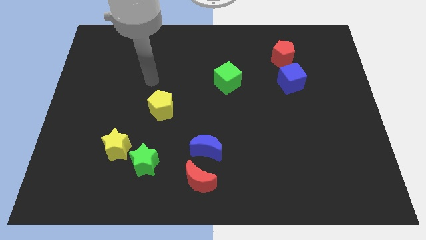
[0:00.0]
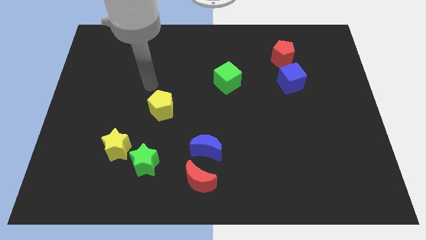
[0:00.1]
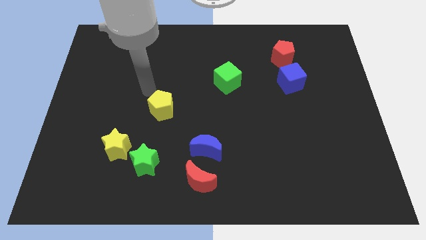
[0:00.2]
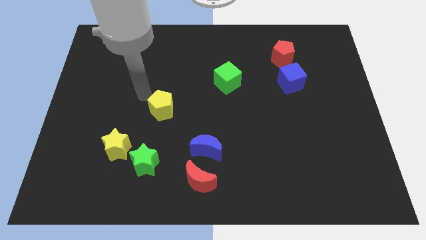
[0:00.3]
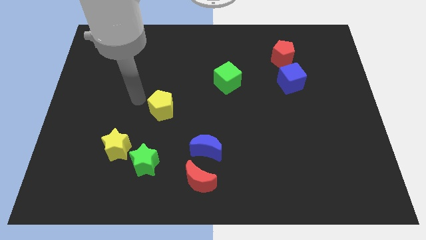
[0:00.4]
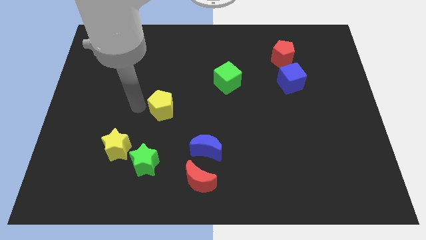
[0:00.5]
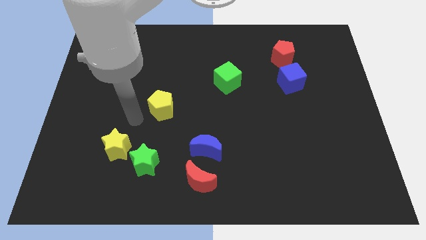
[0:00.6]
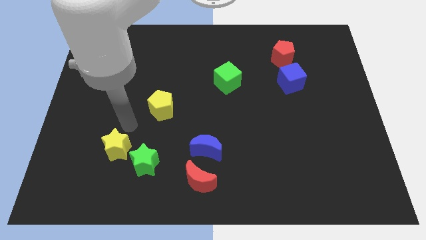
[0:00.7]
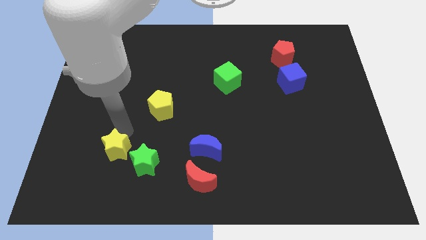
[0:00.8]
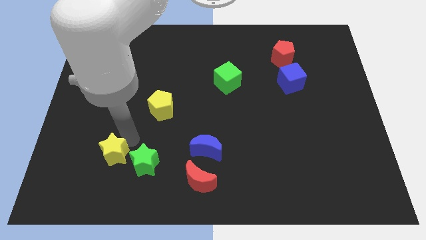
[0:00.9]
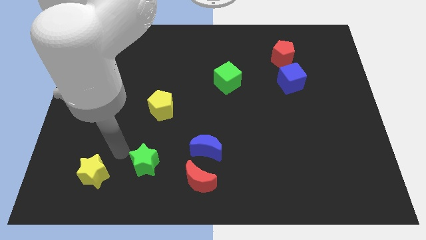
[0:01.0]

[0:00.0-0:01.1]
move the green star away from the yellow star

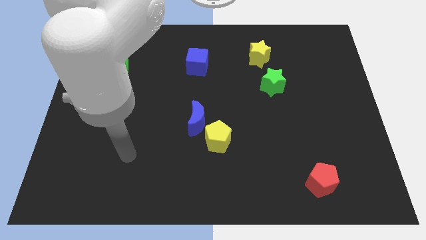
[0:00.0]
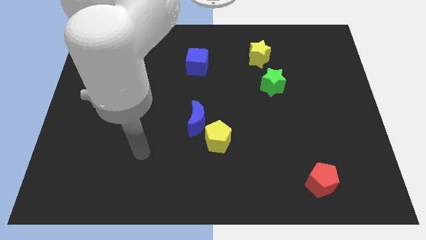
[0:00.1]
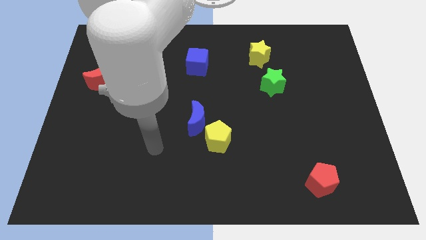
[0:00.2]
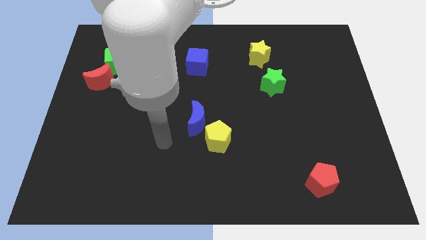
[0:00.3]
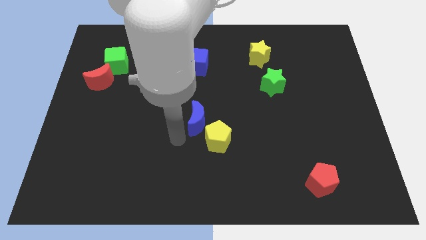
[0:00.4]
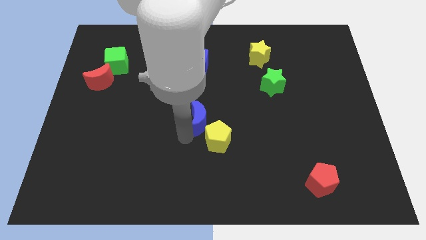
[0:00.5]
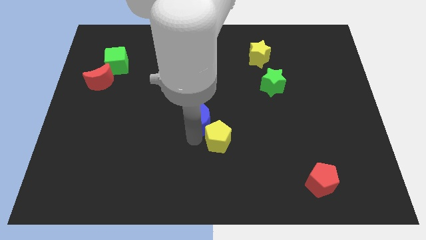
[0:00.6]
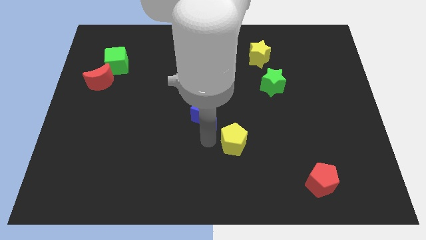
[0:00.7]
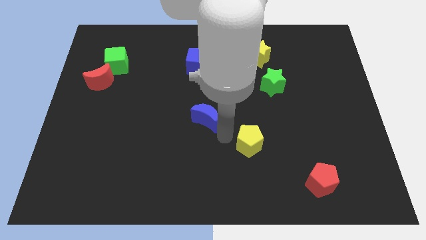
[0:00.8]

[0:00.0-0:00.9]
move the blue moon away from the yellow pentagon

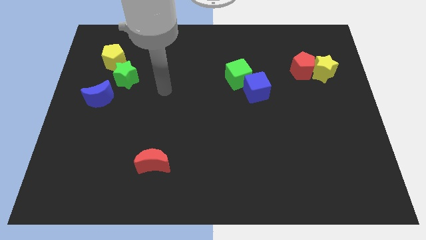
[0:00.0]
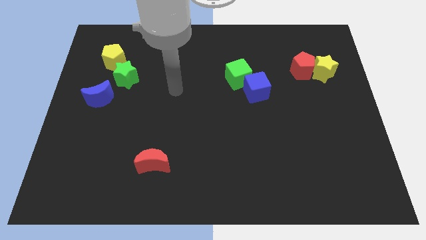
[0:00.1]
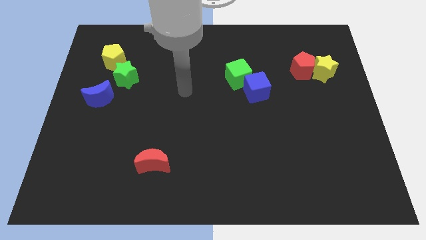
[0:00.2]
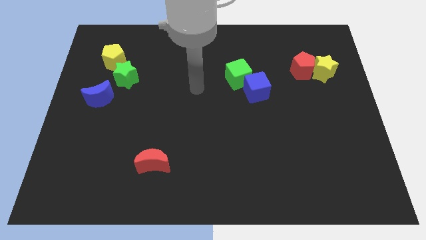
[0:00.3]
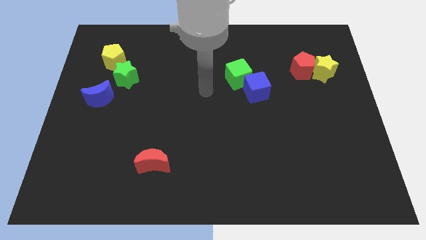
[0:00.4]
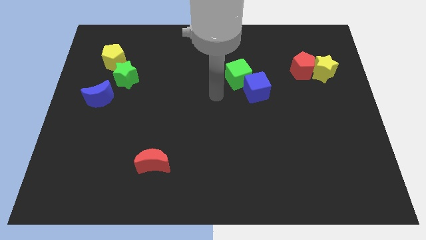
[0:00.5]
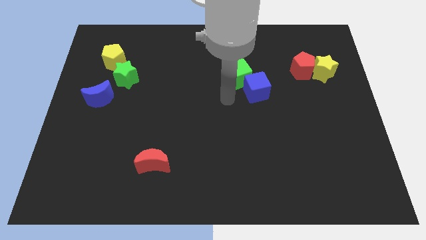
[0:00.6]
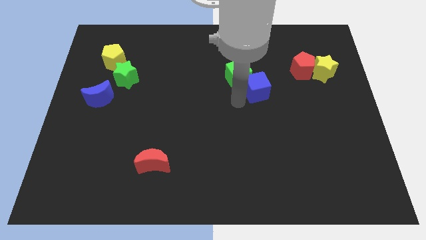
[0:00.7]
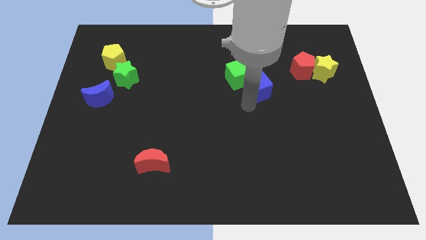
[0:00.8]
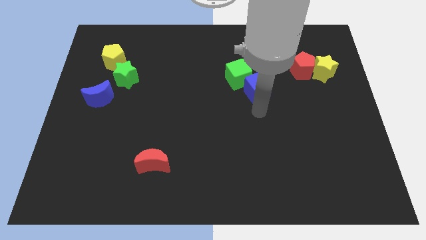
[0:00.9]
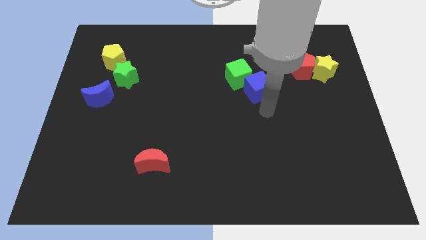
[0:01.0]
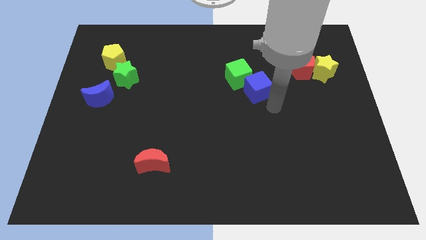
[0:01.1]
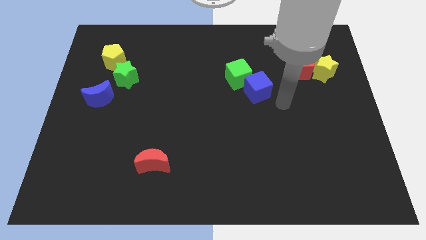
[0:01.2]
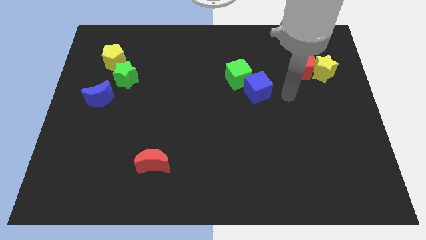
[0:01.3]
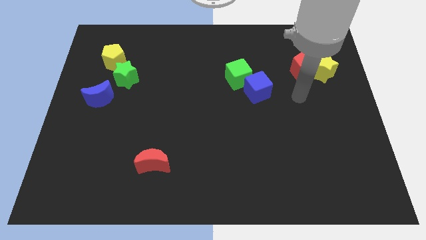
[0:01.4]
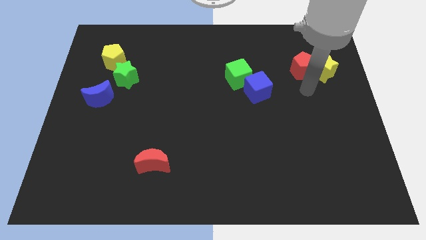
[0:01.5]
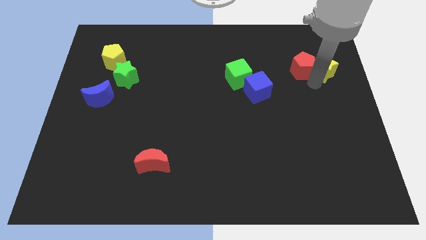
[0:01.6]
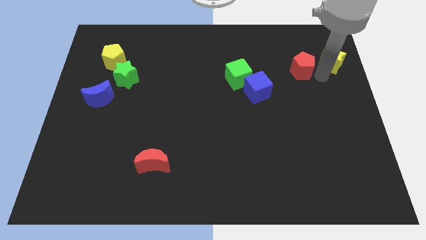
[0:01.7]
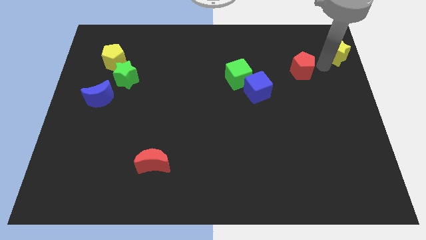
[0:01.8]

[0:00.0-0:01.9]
move the red pentagon away from the yellow star

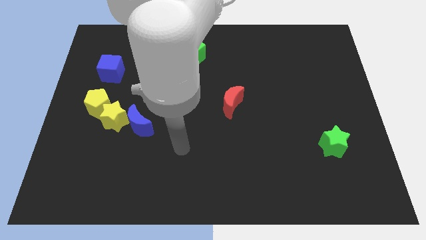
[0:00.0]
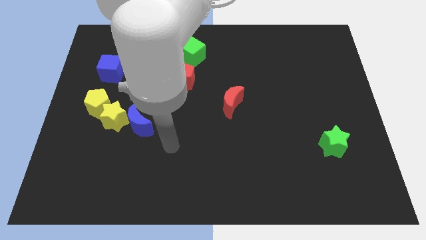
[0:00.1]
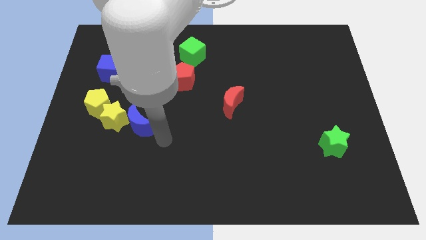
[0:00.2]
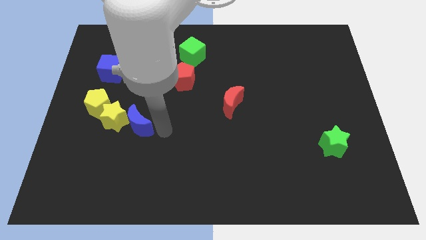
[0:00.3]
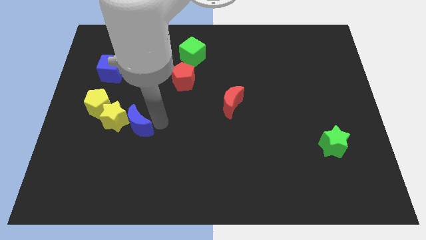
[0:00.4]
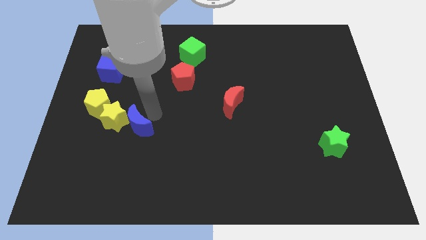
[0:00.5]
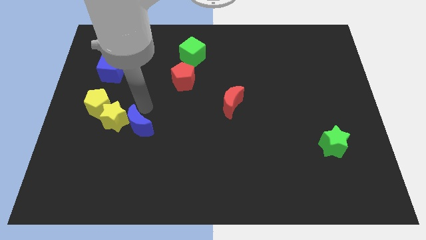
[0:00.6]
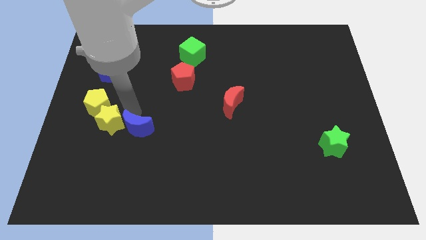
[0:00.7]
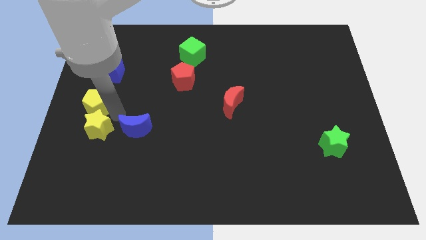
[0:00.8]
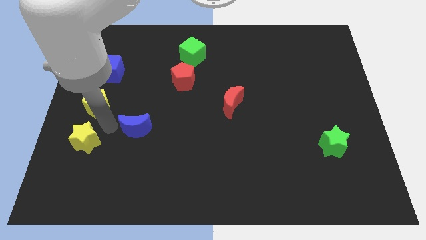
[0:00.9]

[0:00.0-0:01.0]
pull the blue moon apart from the yellow star

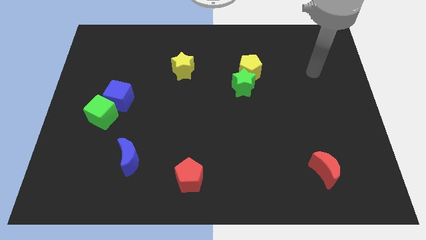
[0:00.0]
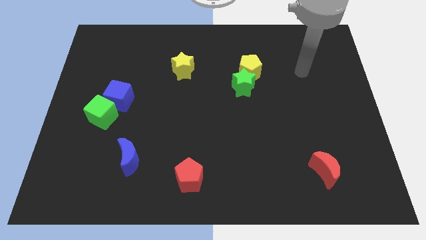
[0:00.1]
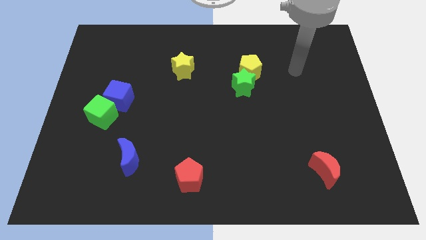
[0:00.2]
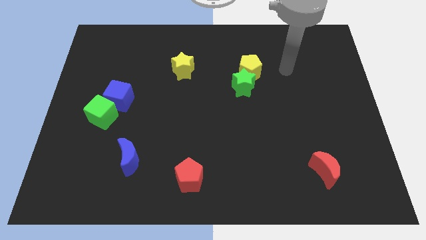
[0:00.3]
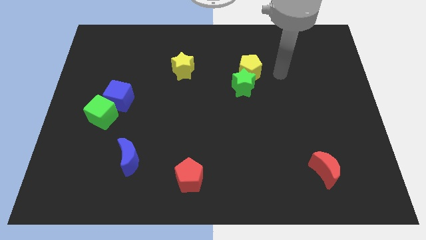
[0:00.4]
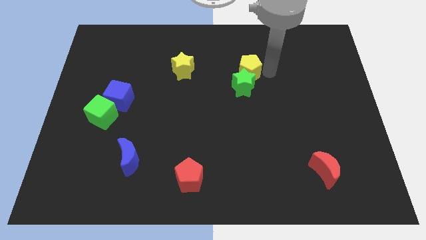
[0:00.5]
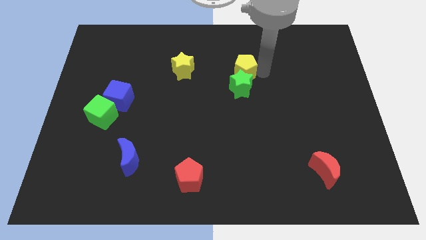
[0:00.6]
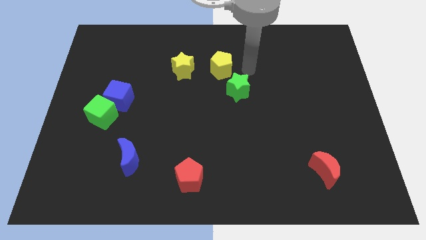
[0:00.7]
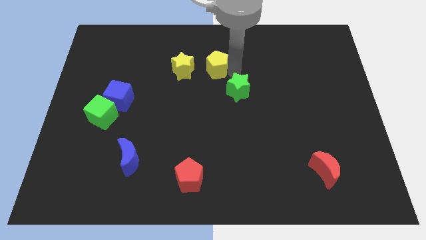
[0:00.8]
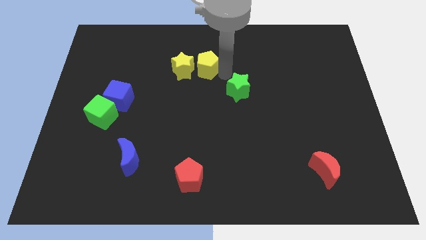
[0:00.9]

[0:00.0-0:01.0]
move the green star away from the yellow pentagon

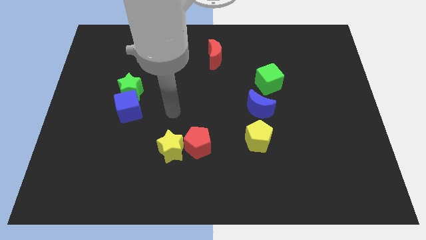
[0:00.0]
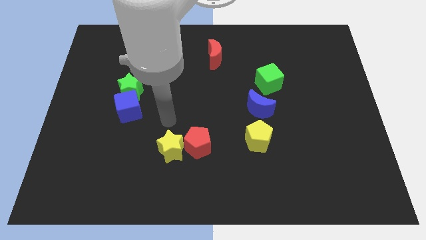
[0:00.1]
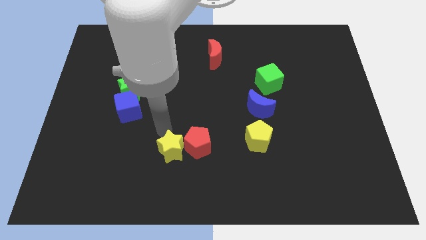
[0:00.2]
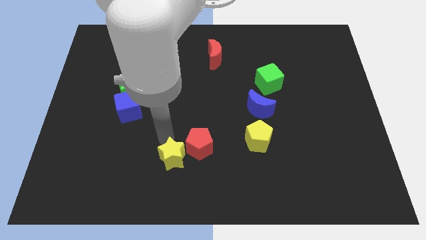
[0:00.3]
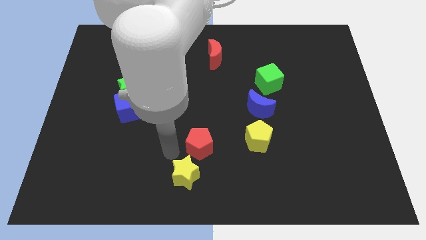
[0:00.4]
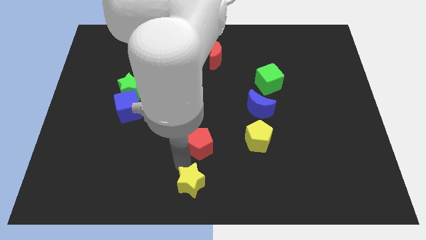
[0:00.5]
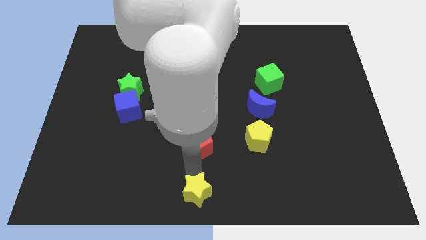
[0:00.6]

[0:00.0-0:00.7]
separate the red pentagon from the yellow star

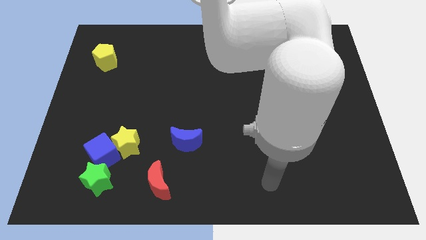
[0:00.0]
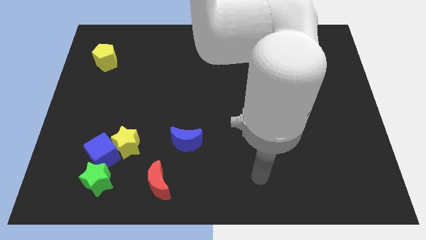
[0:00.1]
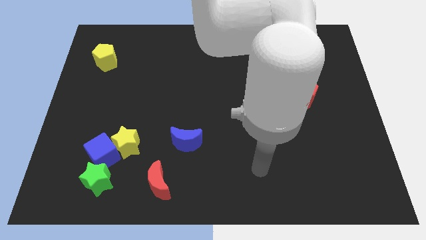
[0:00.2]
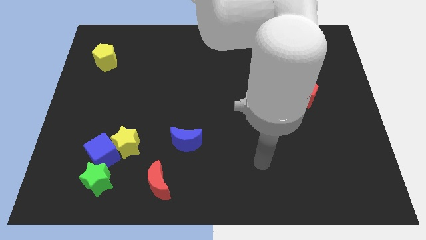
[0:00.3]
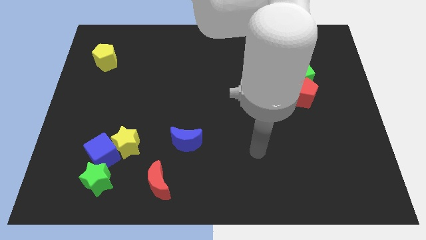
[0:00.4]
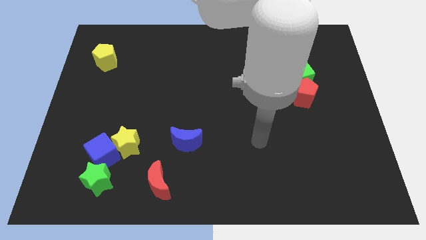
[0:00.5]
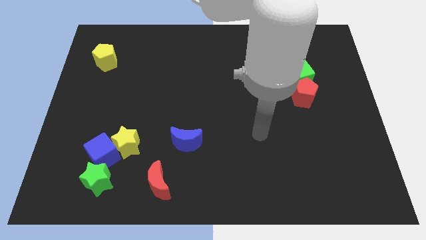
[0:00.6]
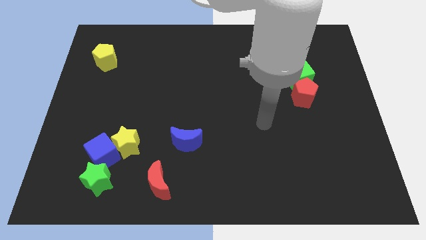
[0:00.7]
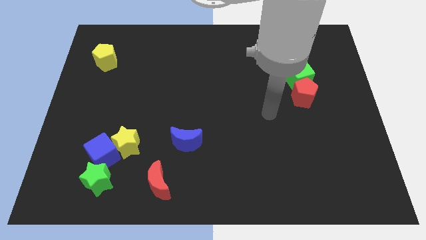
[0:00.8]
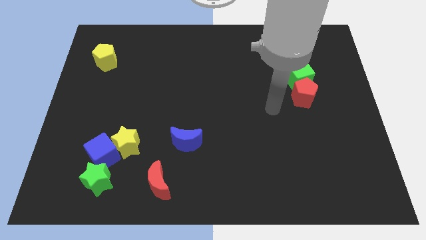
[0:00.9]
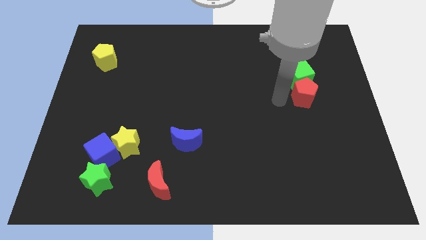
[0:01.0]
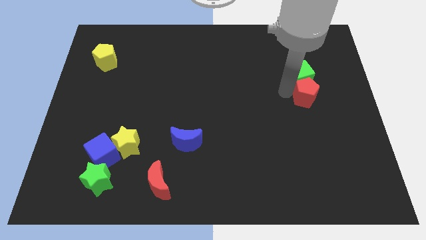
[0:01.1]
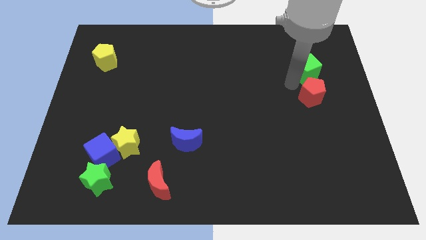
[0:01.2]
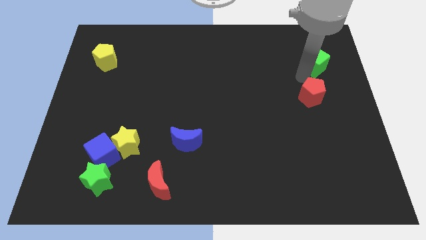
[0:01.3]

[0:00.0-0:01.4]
separate the red pentagon from the green cube

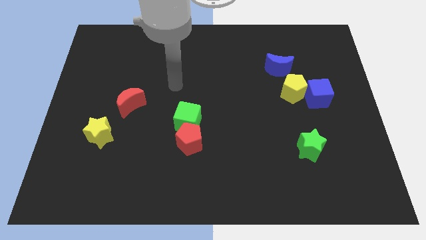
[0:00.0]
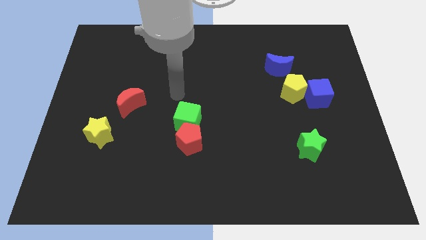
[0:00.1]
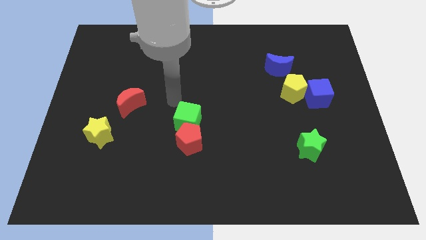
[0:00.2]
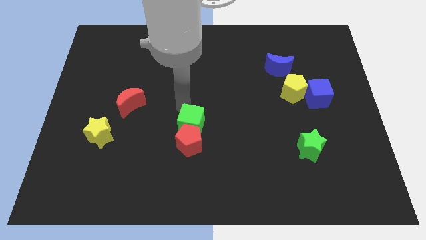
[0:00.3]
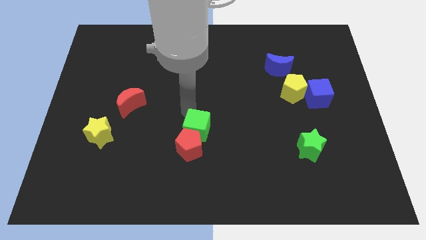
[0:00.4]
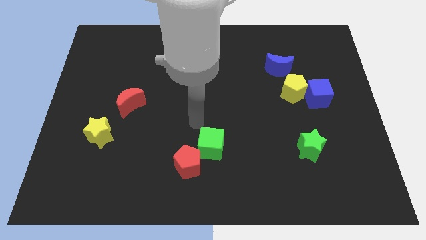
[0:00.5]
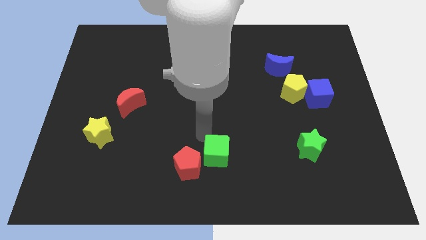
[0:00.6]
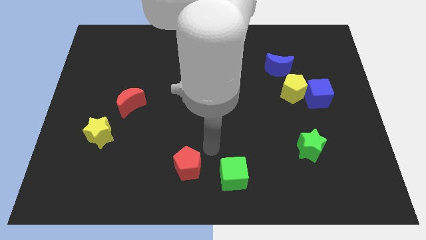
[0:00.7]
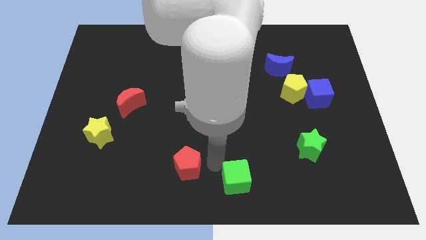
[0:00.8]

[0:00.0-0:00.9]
pull the red pentagon apart from the green cube

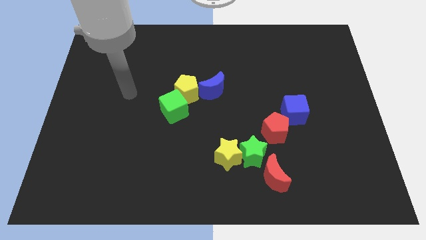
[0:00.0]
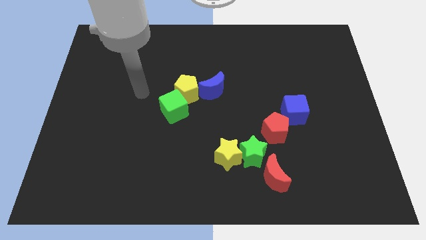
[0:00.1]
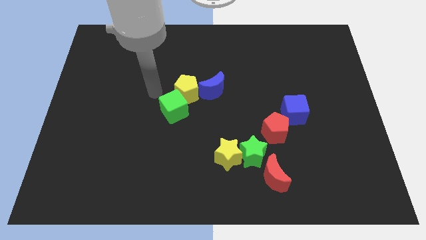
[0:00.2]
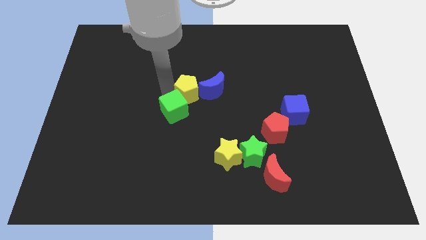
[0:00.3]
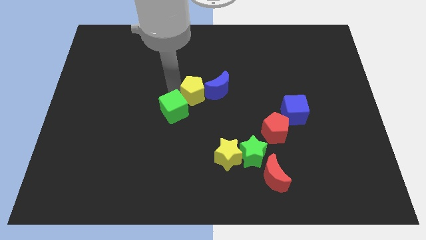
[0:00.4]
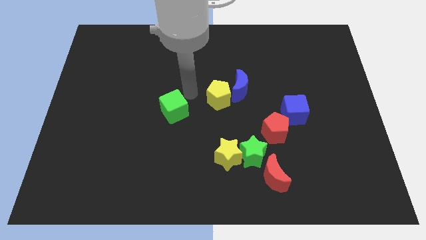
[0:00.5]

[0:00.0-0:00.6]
move the green cube away from the yellow pentagon
